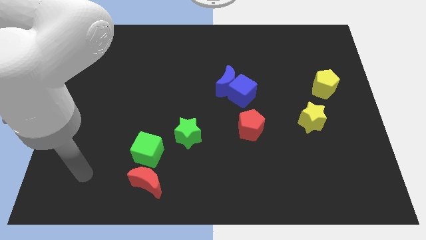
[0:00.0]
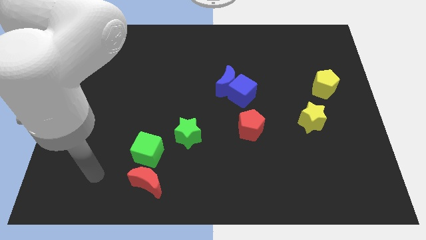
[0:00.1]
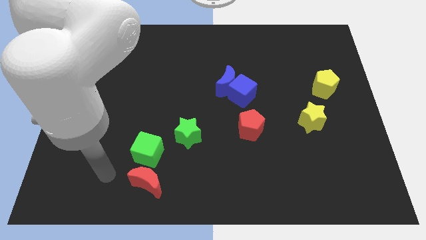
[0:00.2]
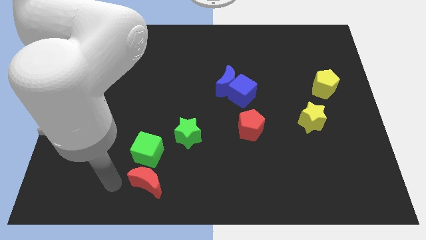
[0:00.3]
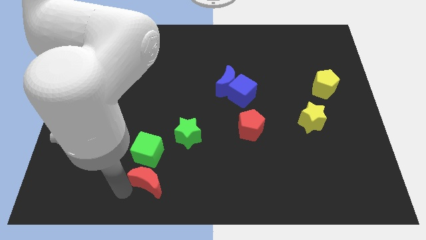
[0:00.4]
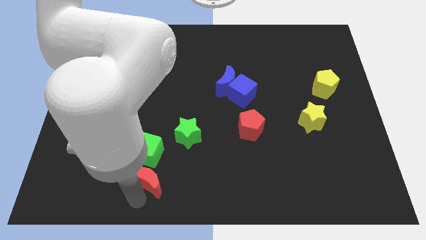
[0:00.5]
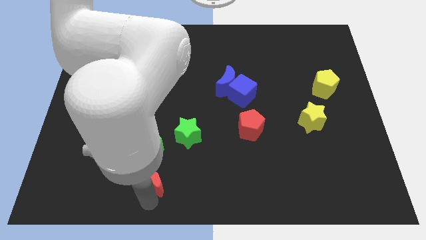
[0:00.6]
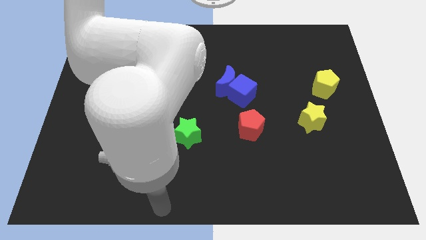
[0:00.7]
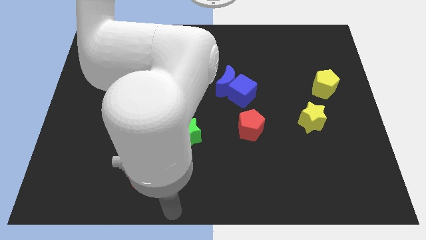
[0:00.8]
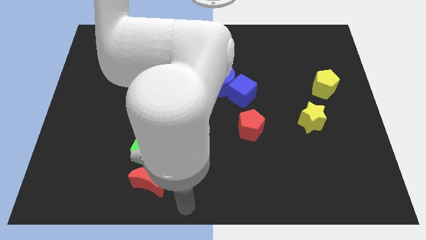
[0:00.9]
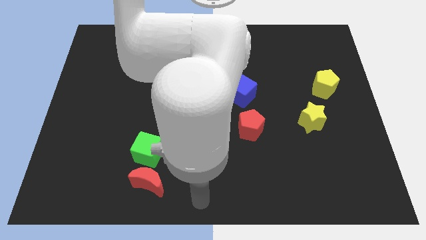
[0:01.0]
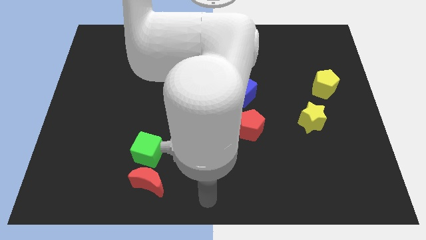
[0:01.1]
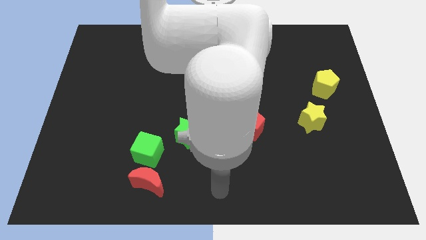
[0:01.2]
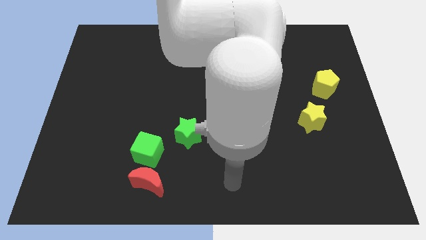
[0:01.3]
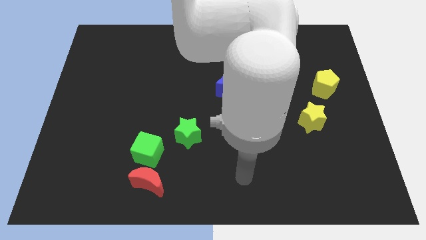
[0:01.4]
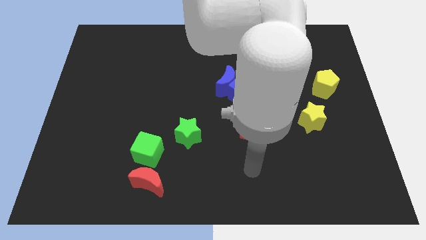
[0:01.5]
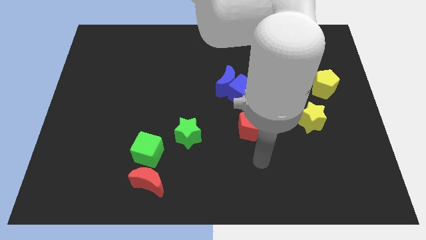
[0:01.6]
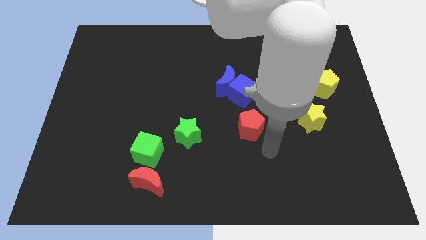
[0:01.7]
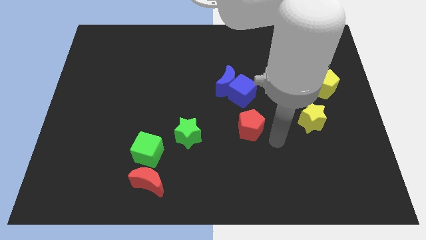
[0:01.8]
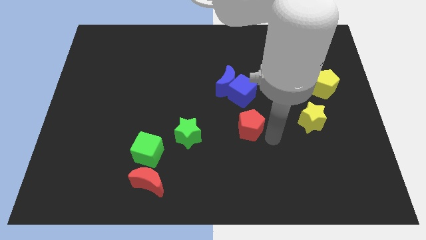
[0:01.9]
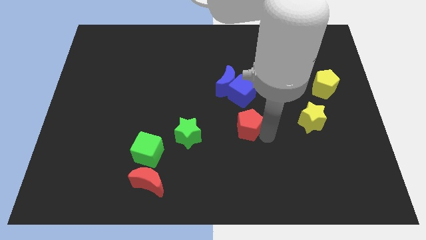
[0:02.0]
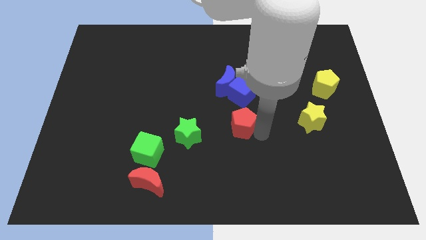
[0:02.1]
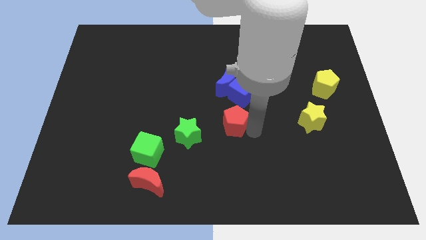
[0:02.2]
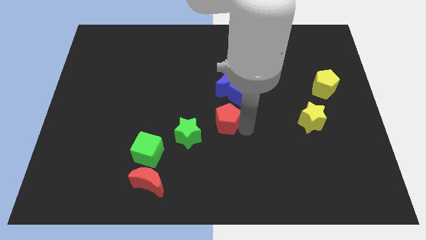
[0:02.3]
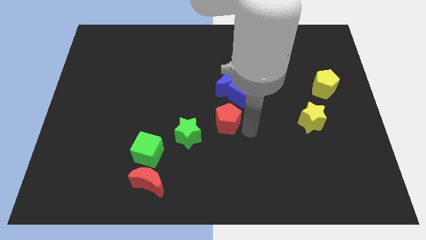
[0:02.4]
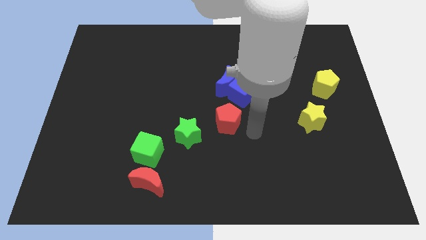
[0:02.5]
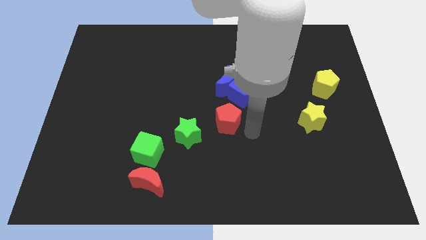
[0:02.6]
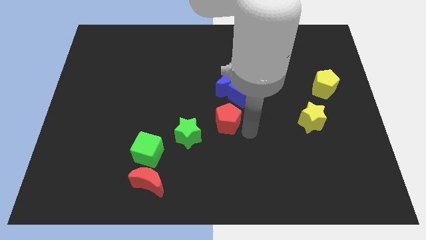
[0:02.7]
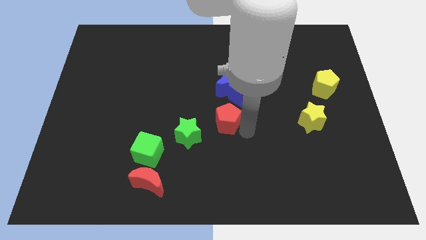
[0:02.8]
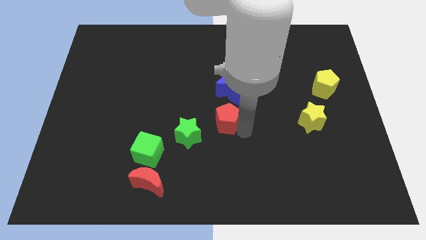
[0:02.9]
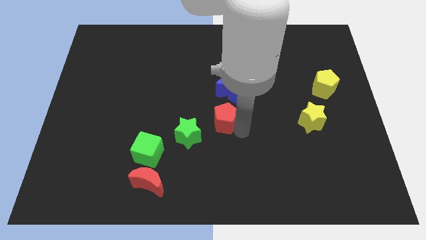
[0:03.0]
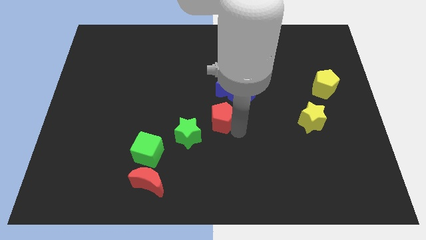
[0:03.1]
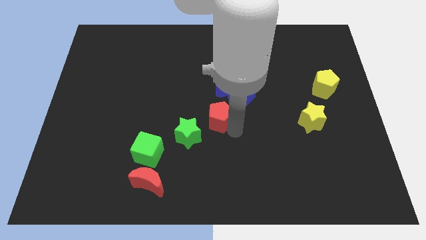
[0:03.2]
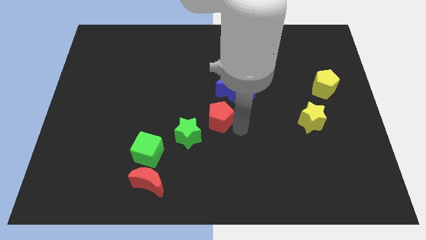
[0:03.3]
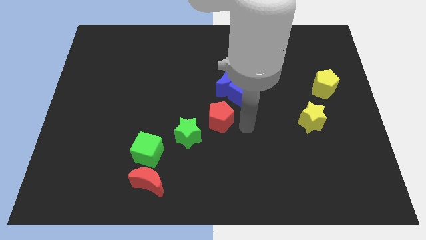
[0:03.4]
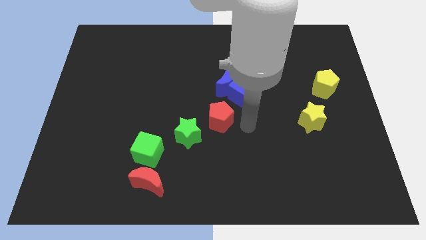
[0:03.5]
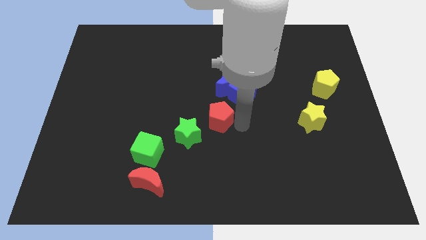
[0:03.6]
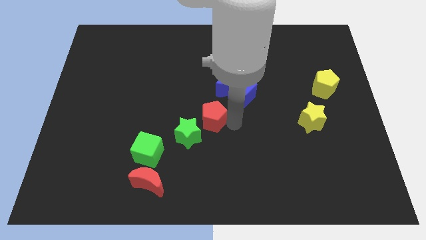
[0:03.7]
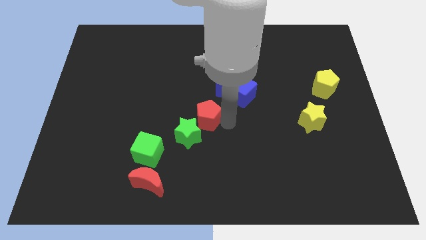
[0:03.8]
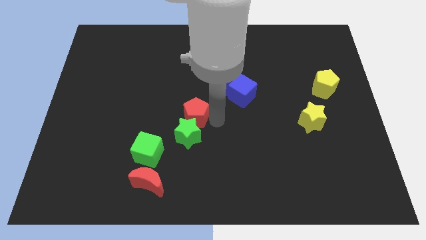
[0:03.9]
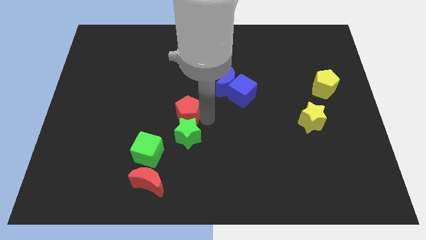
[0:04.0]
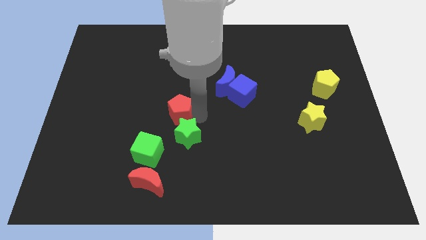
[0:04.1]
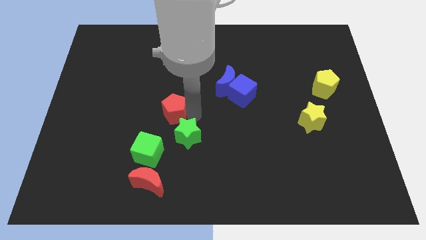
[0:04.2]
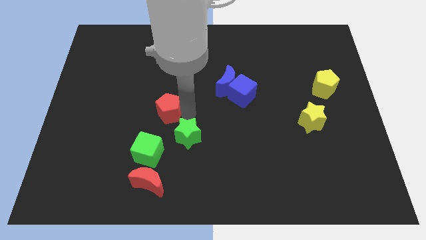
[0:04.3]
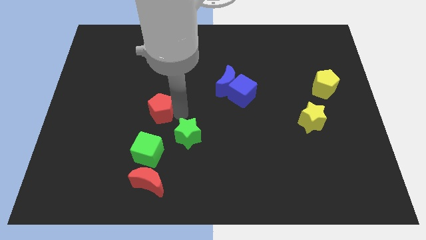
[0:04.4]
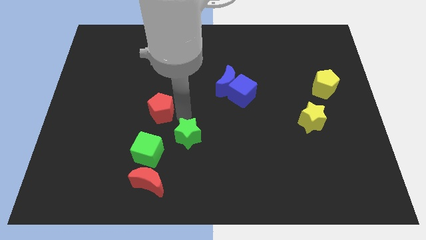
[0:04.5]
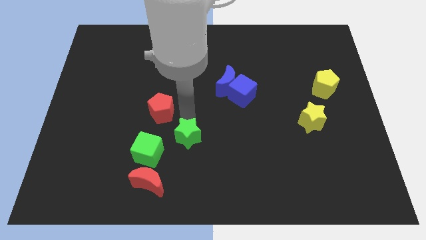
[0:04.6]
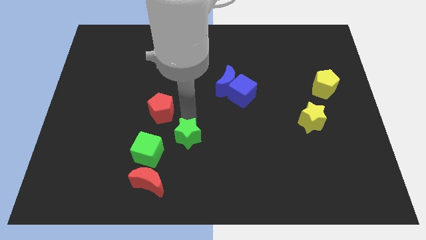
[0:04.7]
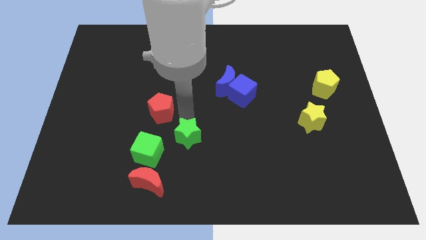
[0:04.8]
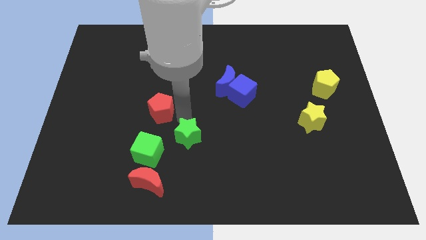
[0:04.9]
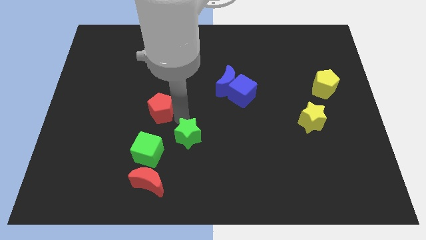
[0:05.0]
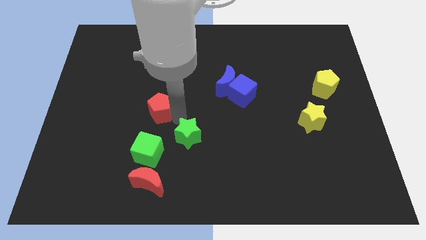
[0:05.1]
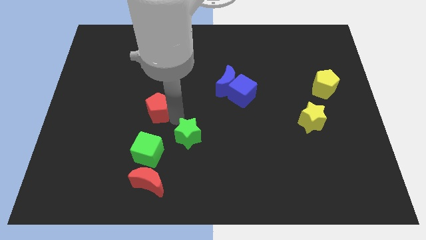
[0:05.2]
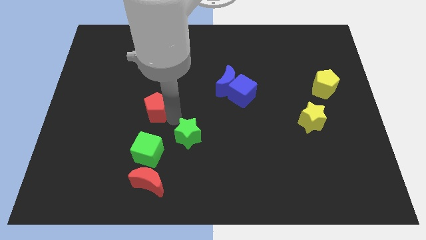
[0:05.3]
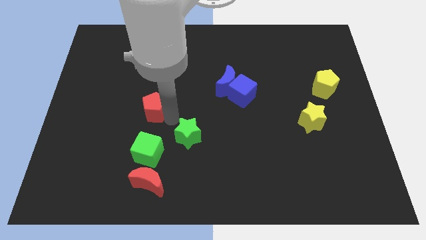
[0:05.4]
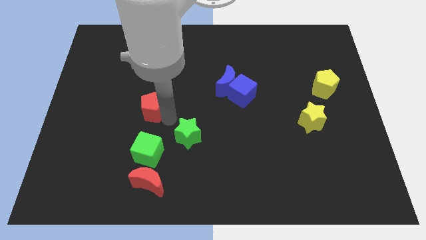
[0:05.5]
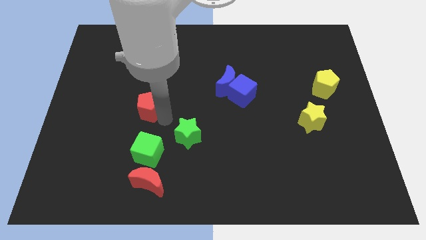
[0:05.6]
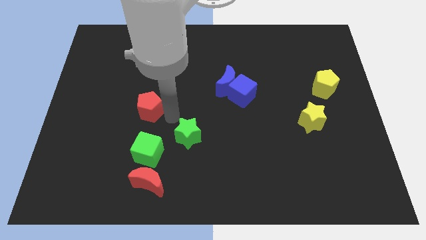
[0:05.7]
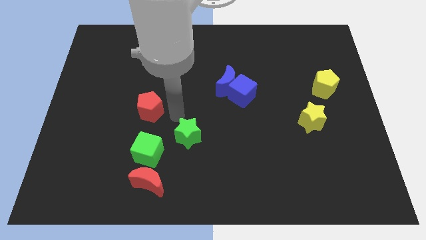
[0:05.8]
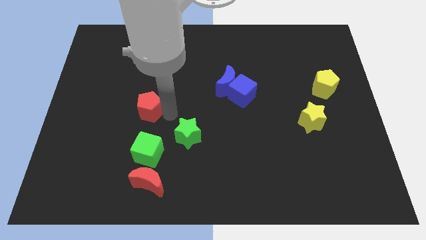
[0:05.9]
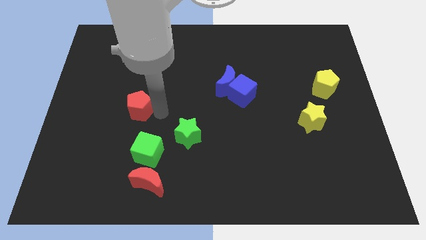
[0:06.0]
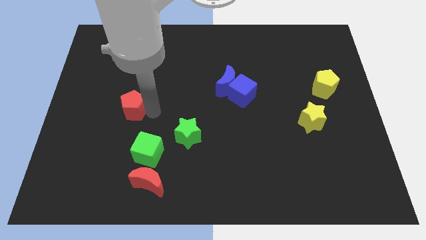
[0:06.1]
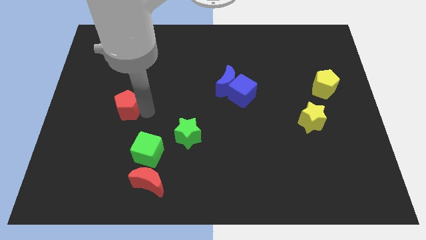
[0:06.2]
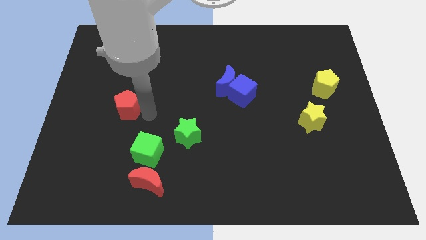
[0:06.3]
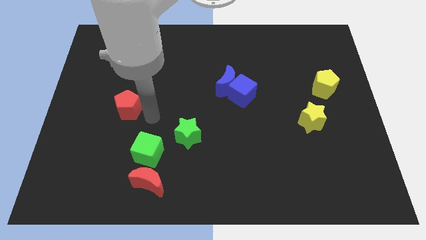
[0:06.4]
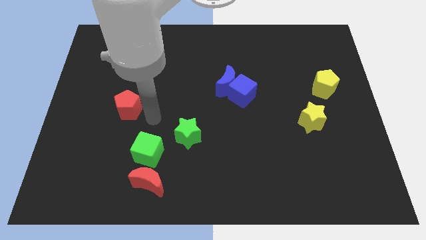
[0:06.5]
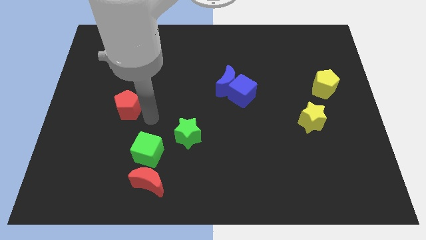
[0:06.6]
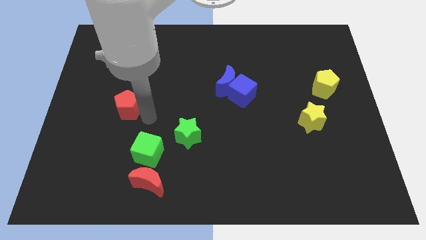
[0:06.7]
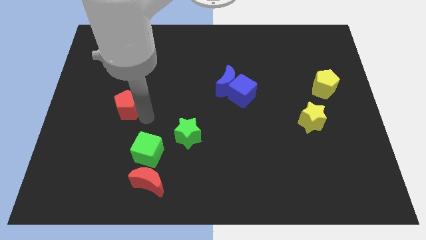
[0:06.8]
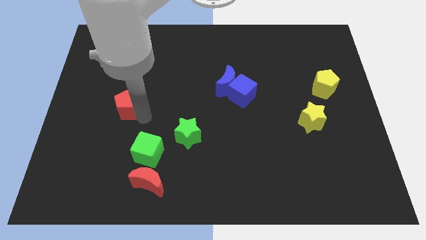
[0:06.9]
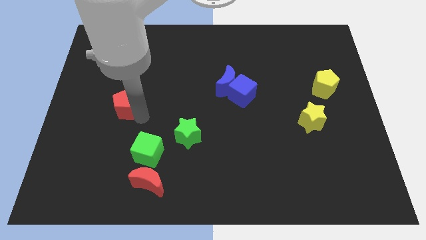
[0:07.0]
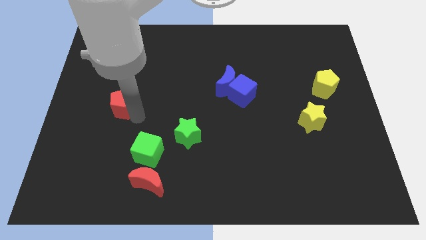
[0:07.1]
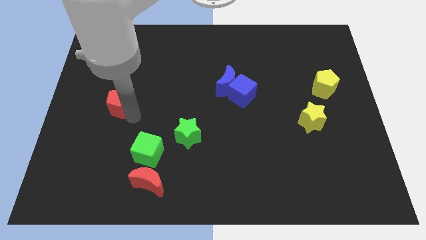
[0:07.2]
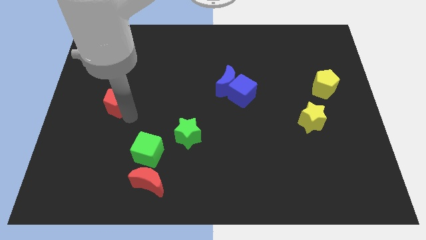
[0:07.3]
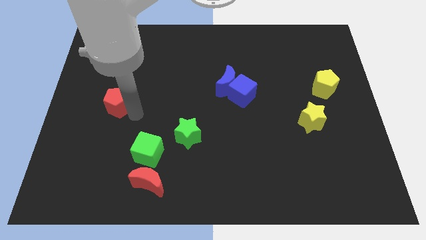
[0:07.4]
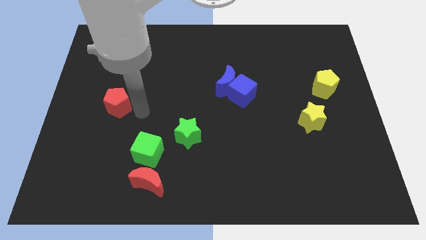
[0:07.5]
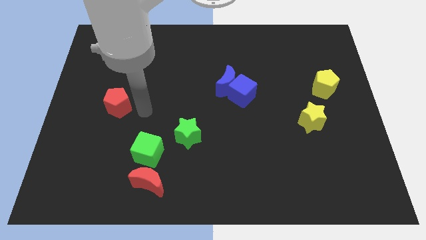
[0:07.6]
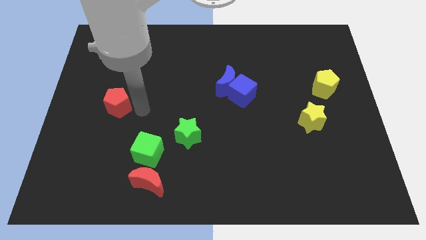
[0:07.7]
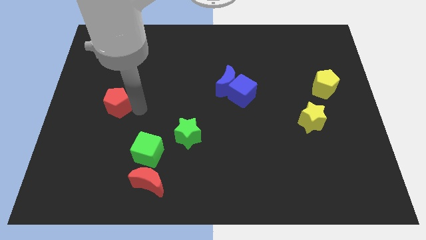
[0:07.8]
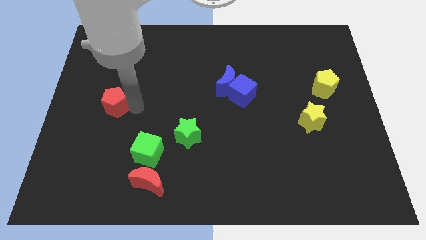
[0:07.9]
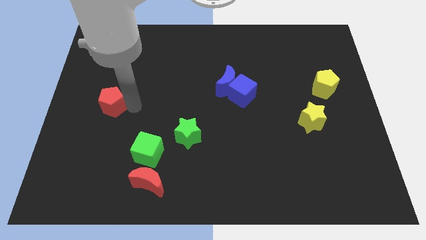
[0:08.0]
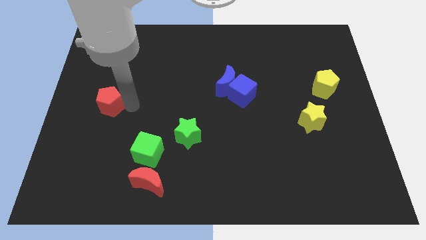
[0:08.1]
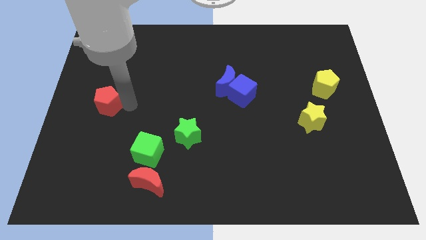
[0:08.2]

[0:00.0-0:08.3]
push the red pentagon to the left side of the board
